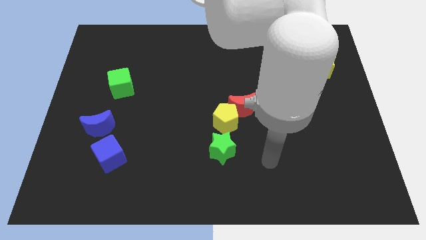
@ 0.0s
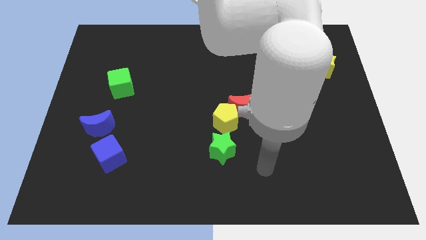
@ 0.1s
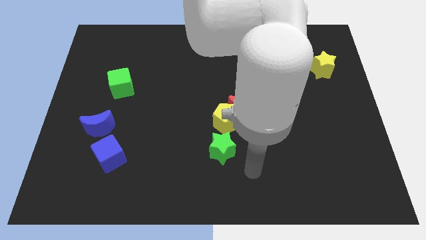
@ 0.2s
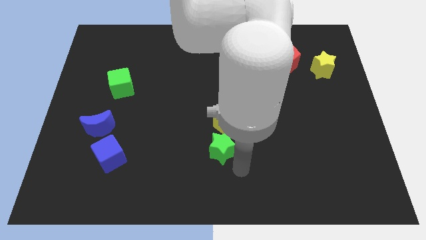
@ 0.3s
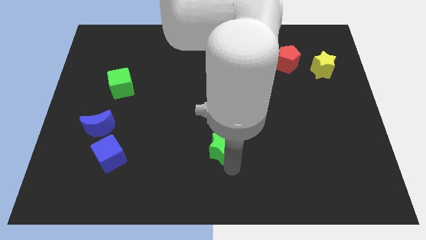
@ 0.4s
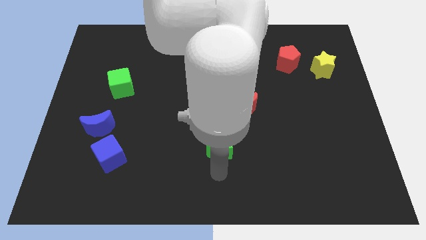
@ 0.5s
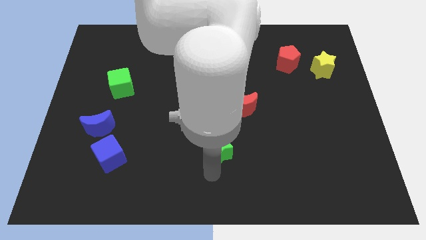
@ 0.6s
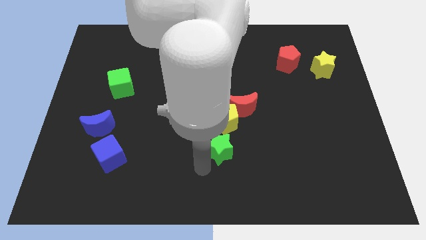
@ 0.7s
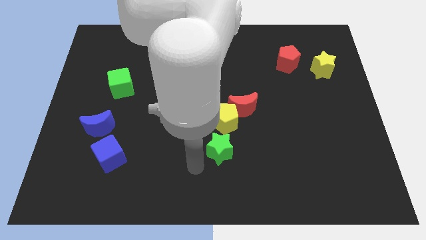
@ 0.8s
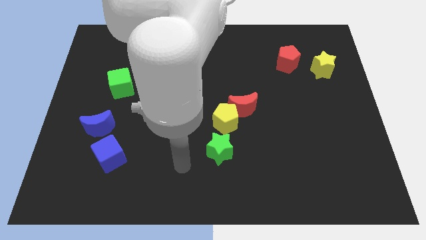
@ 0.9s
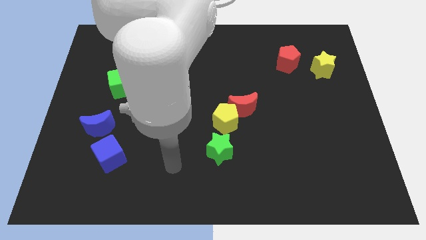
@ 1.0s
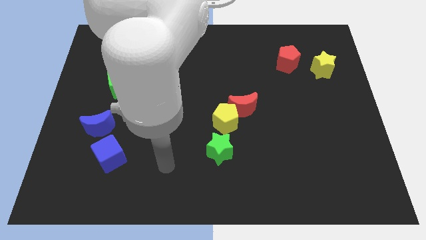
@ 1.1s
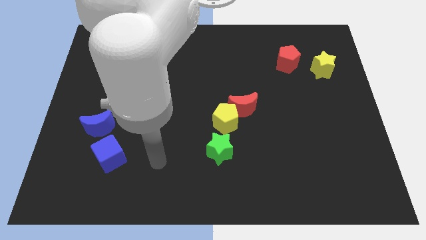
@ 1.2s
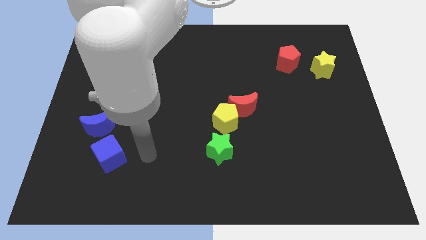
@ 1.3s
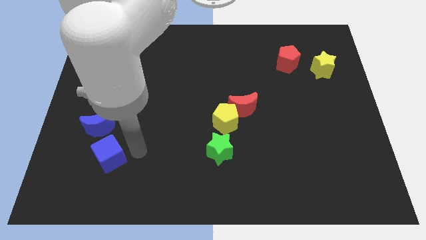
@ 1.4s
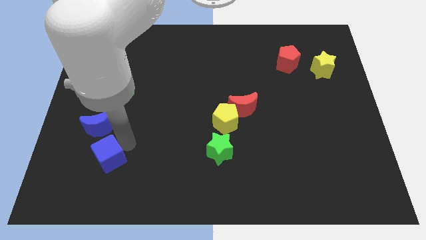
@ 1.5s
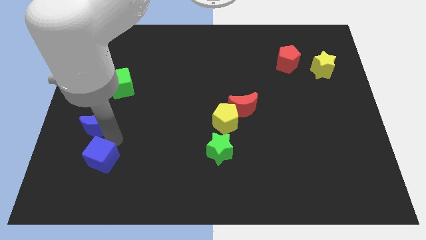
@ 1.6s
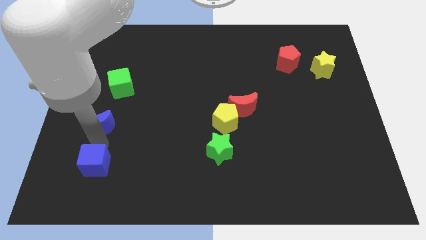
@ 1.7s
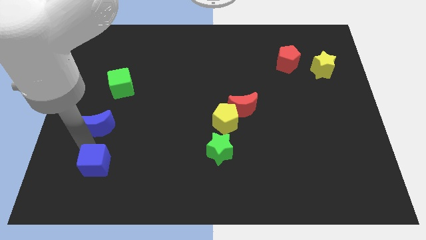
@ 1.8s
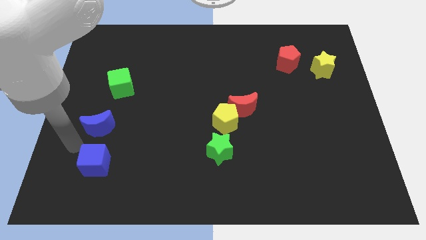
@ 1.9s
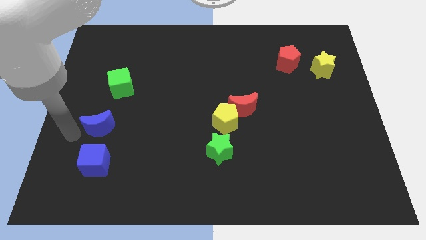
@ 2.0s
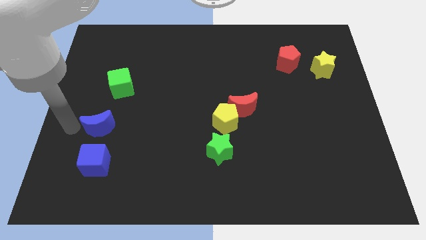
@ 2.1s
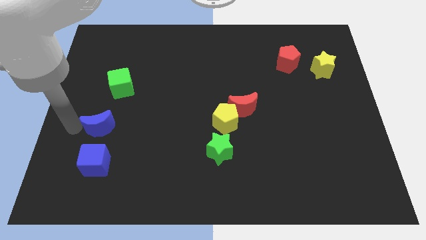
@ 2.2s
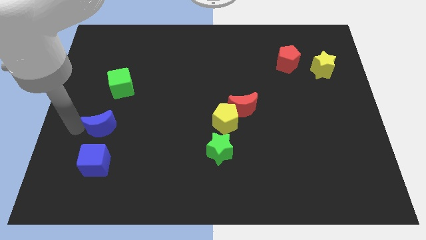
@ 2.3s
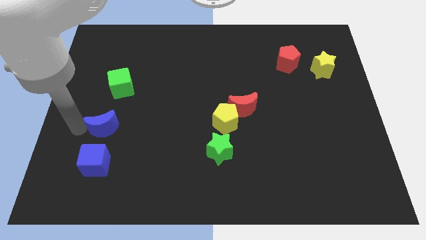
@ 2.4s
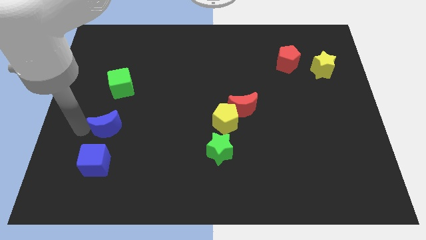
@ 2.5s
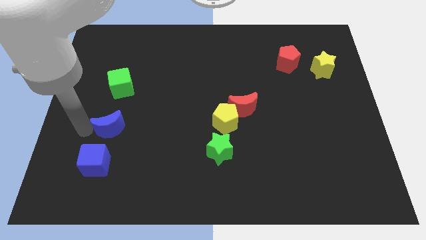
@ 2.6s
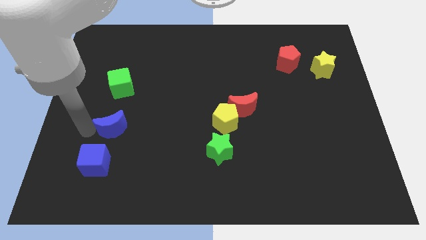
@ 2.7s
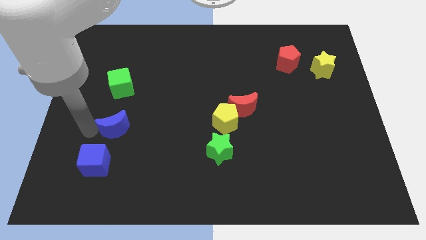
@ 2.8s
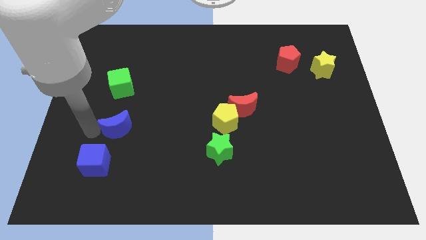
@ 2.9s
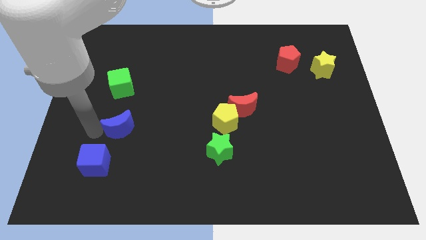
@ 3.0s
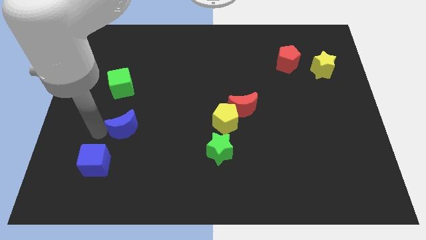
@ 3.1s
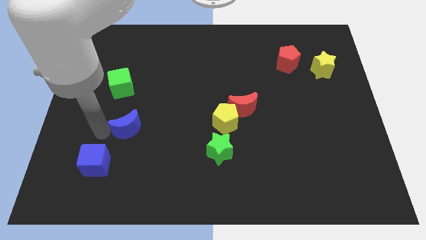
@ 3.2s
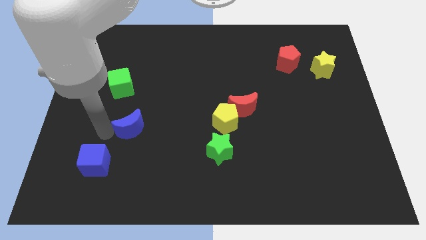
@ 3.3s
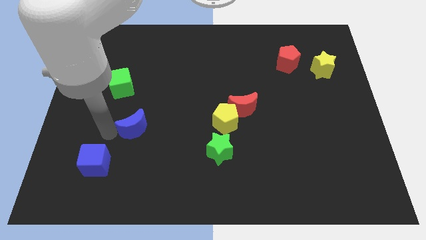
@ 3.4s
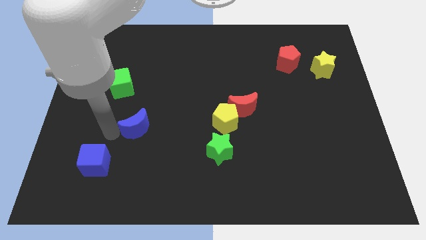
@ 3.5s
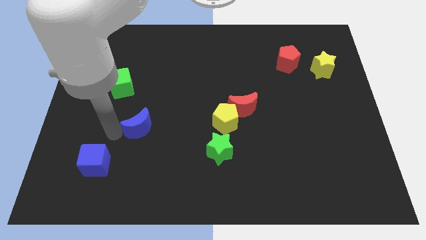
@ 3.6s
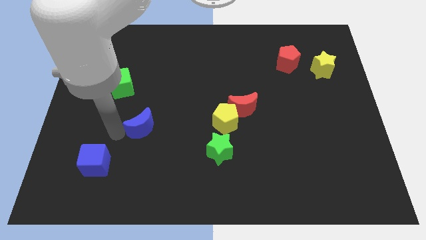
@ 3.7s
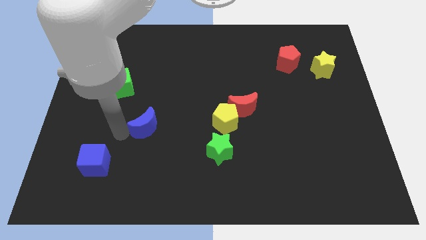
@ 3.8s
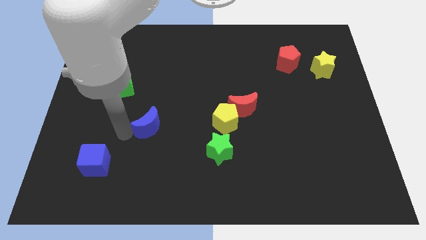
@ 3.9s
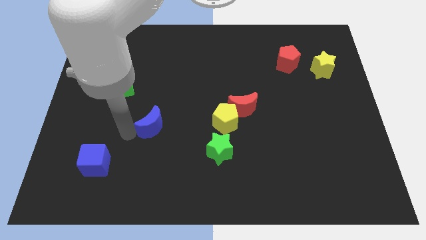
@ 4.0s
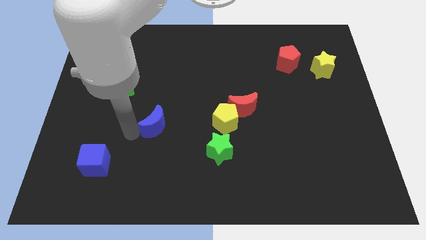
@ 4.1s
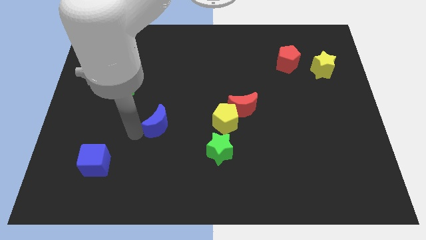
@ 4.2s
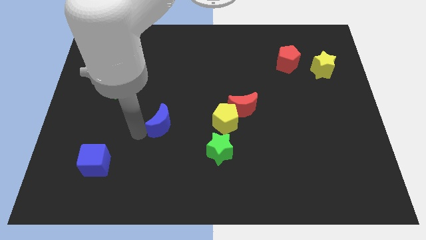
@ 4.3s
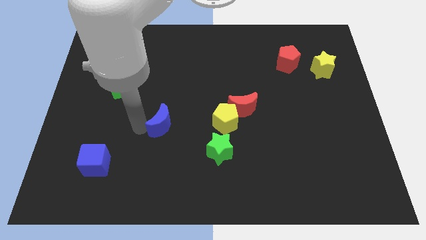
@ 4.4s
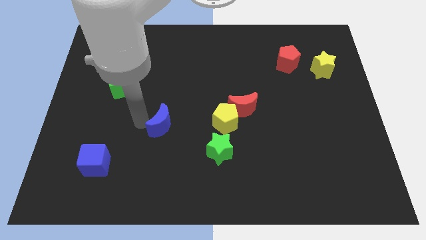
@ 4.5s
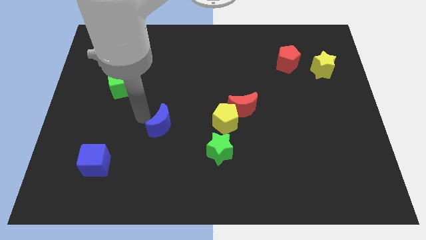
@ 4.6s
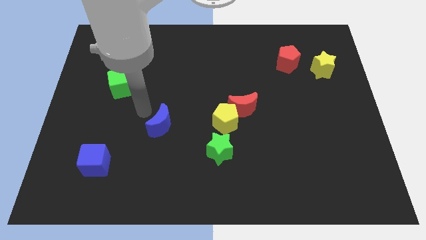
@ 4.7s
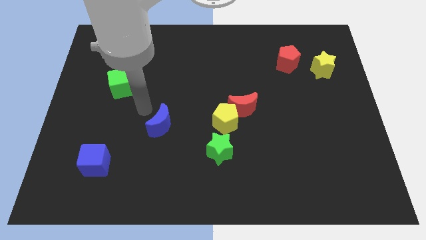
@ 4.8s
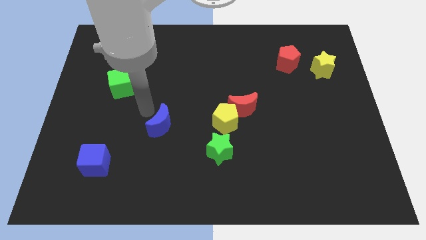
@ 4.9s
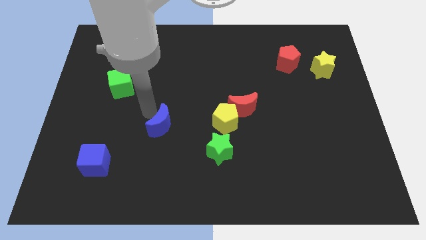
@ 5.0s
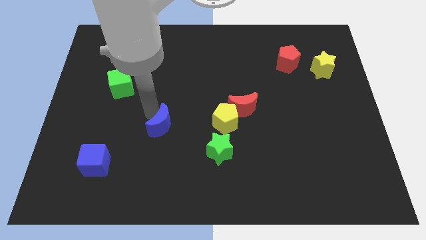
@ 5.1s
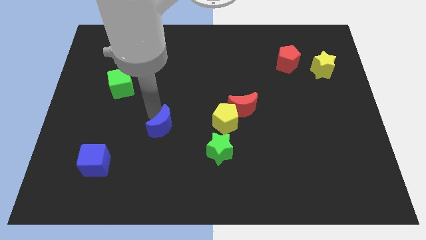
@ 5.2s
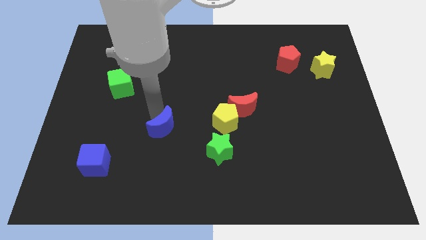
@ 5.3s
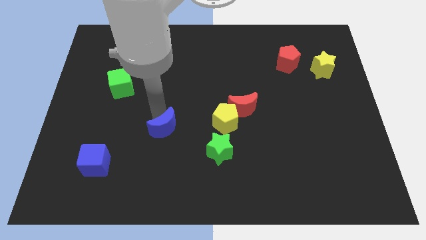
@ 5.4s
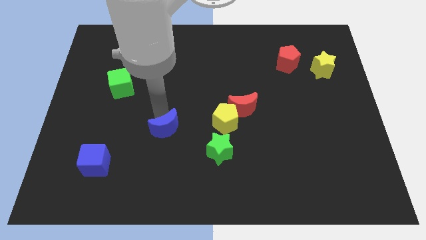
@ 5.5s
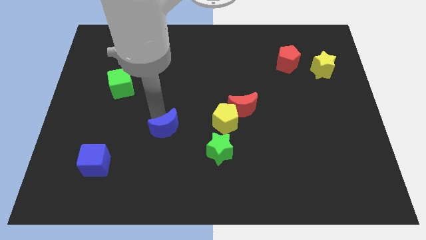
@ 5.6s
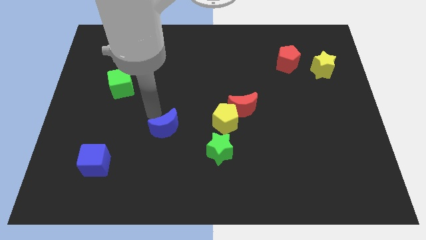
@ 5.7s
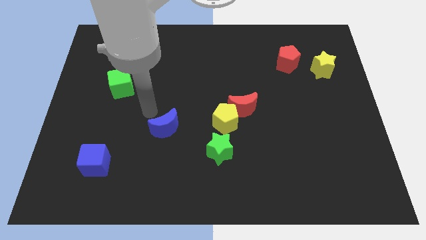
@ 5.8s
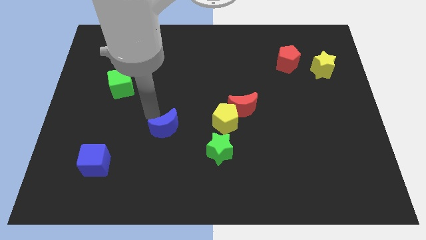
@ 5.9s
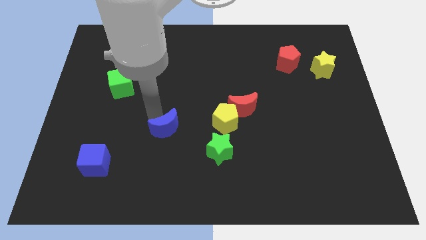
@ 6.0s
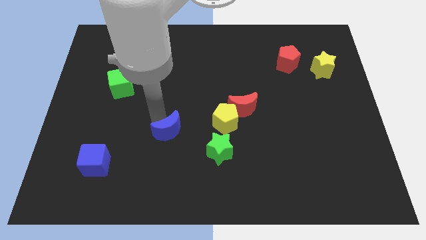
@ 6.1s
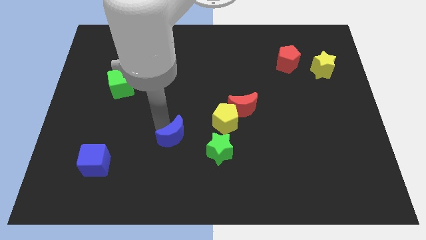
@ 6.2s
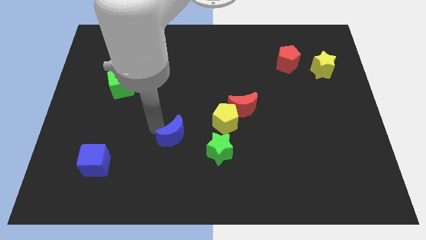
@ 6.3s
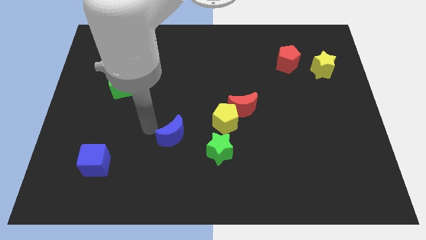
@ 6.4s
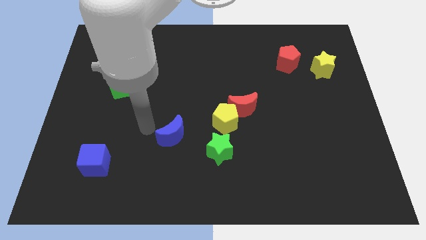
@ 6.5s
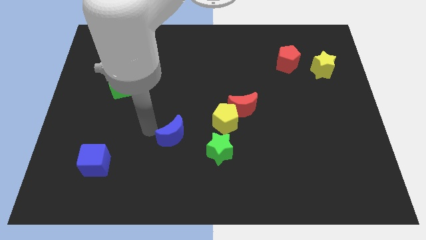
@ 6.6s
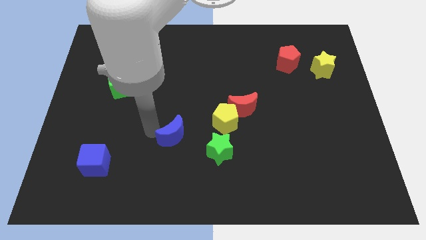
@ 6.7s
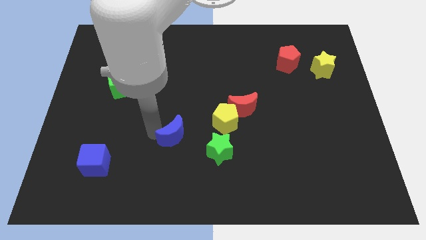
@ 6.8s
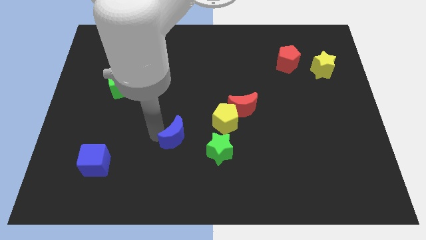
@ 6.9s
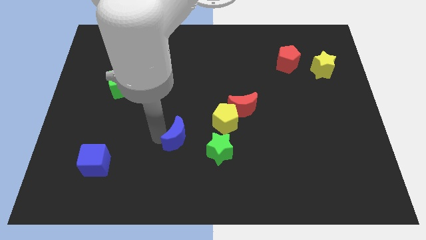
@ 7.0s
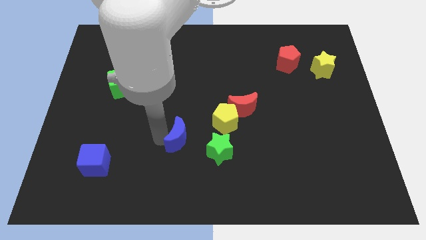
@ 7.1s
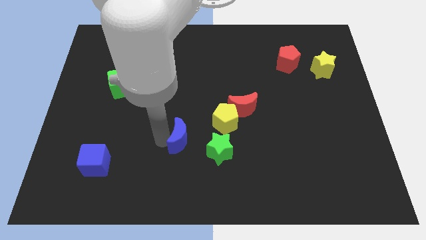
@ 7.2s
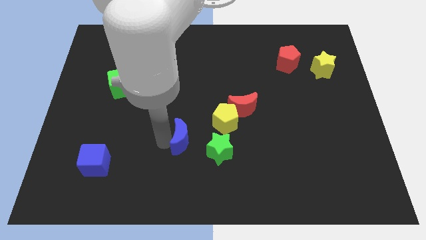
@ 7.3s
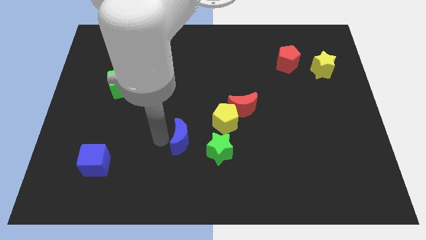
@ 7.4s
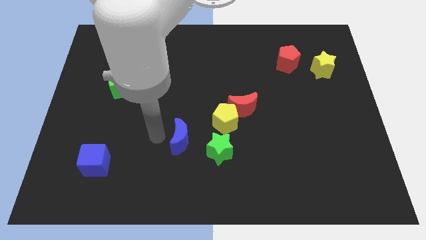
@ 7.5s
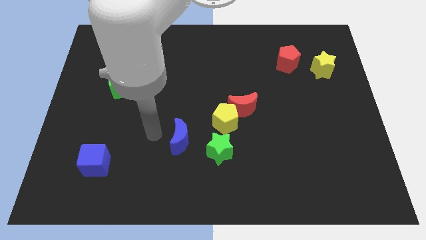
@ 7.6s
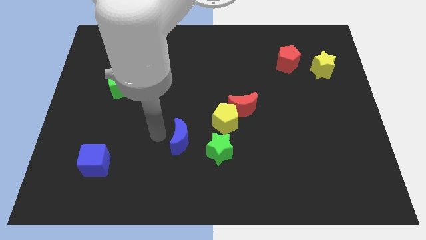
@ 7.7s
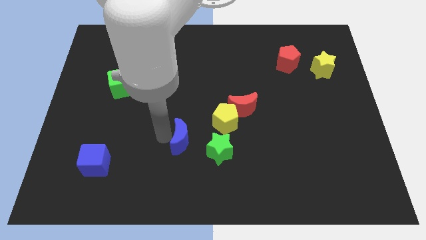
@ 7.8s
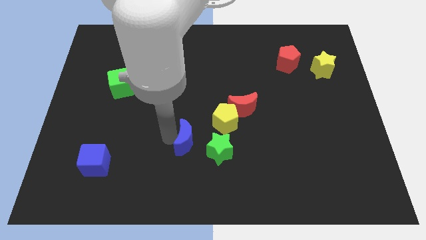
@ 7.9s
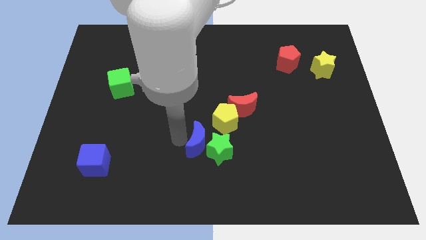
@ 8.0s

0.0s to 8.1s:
slide the blue moon to the green star
